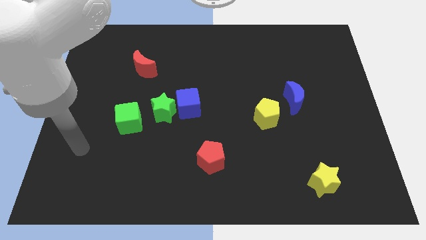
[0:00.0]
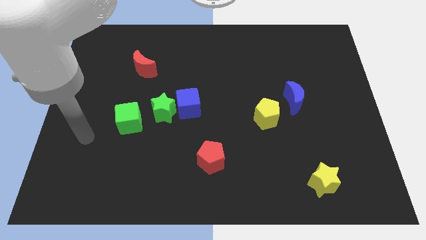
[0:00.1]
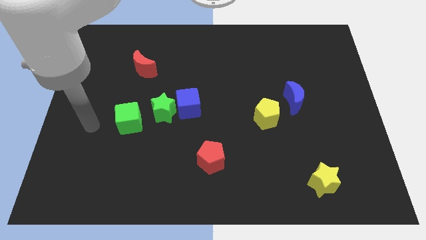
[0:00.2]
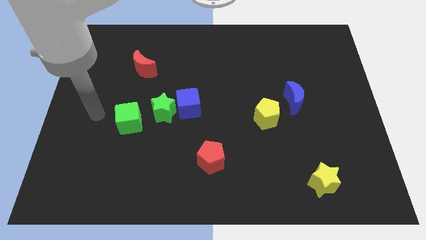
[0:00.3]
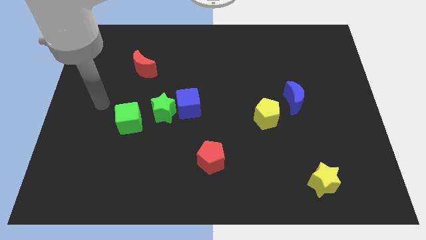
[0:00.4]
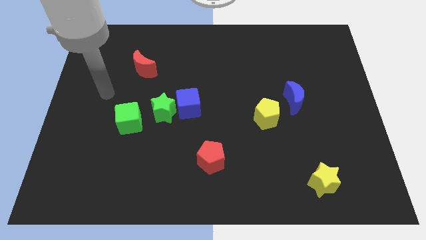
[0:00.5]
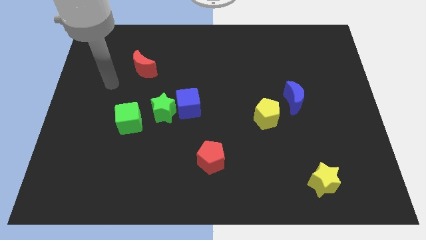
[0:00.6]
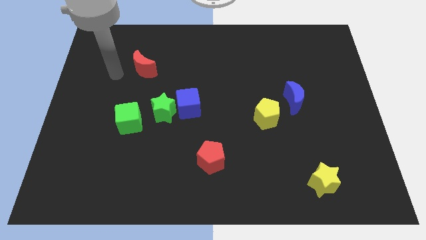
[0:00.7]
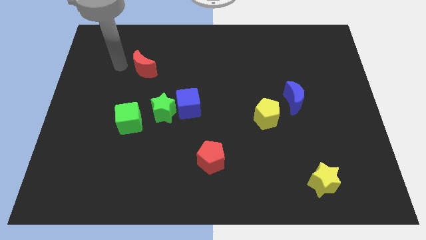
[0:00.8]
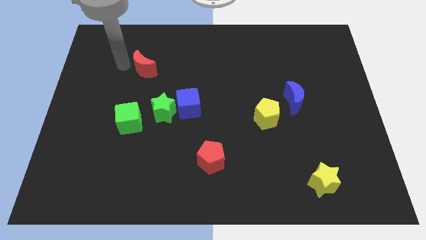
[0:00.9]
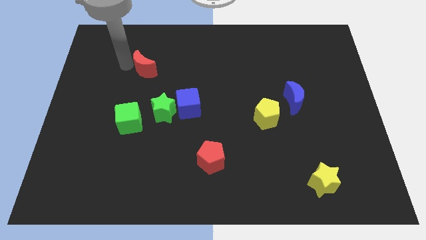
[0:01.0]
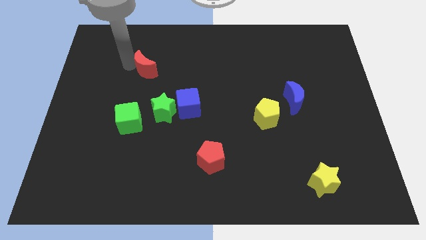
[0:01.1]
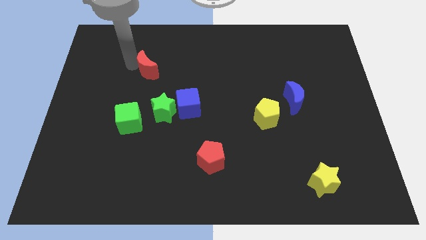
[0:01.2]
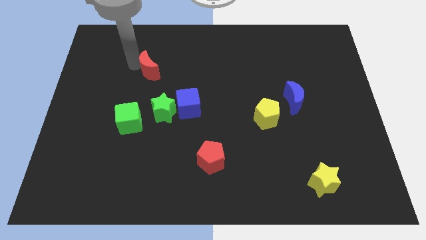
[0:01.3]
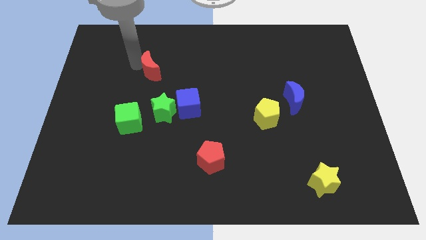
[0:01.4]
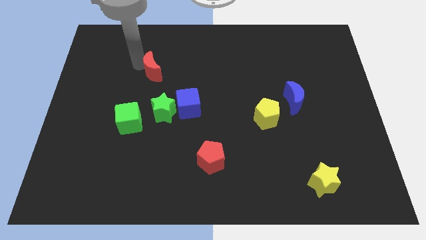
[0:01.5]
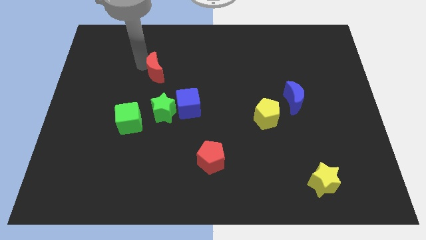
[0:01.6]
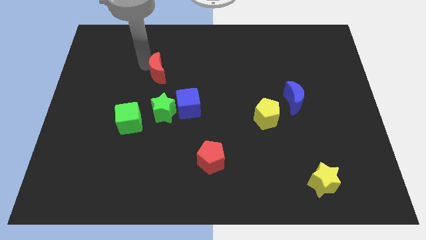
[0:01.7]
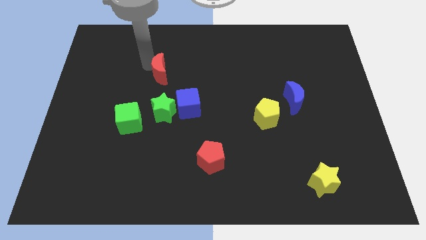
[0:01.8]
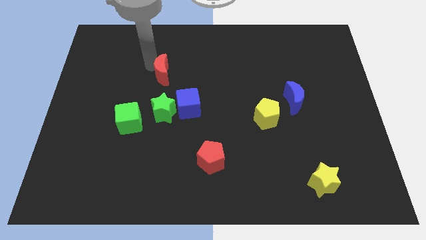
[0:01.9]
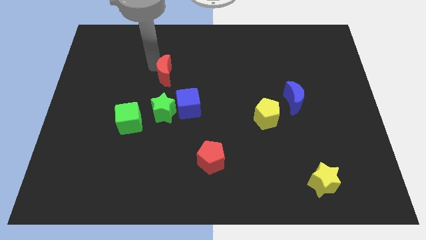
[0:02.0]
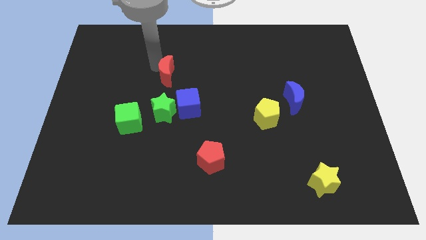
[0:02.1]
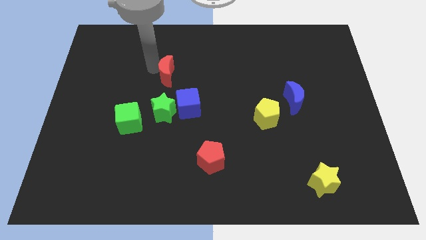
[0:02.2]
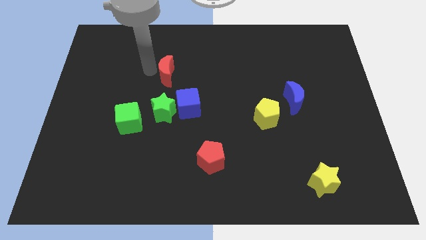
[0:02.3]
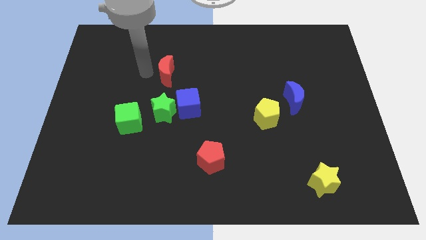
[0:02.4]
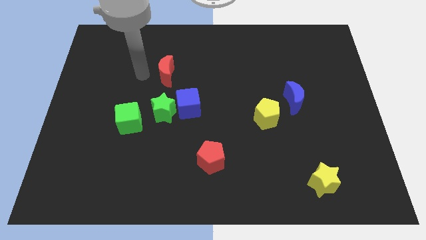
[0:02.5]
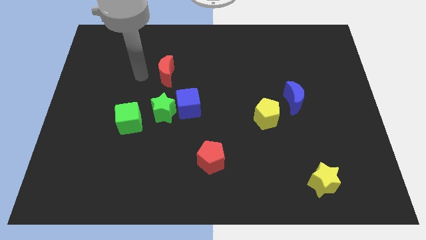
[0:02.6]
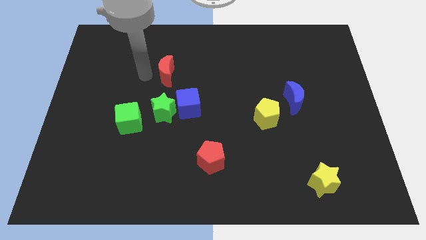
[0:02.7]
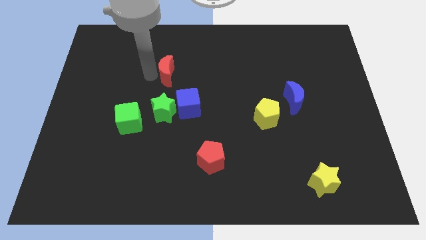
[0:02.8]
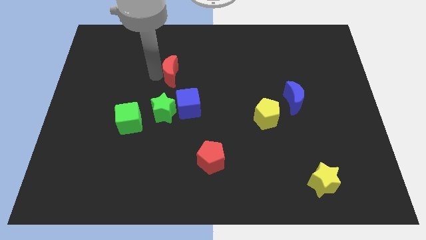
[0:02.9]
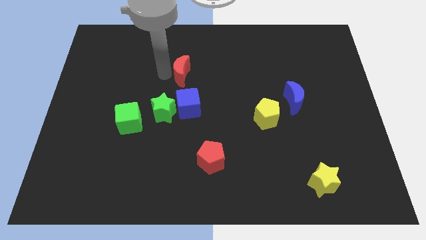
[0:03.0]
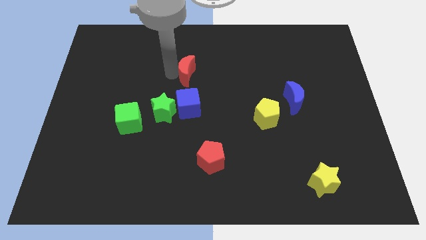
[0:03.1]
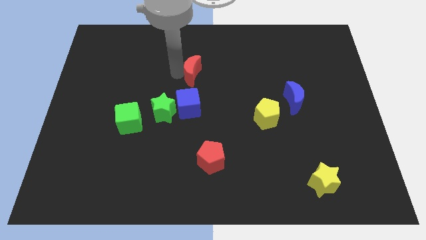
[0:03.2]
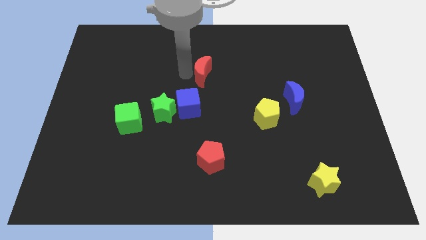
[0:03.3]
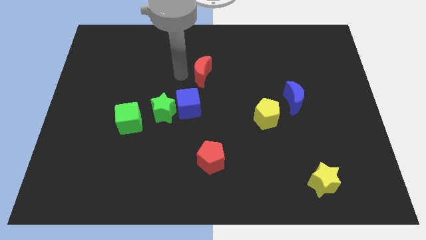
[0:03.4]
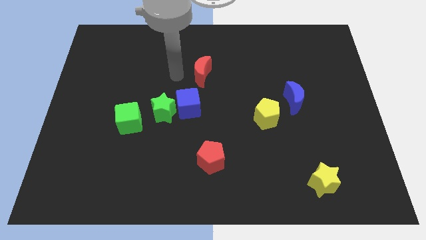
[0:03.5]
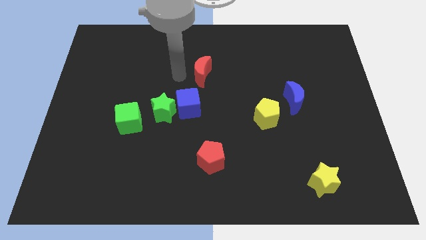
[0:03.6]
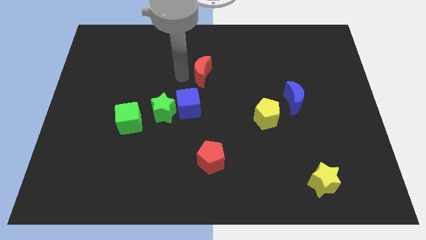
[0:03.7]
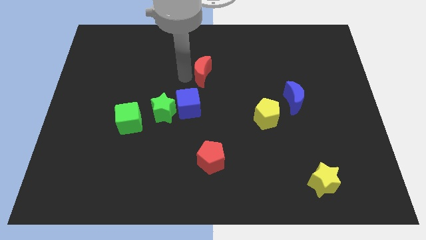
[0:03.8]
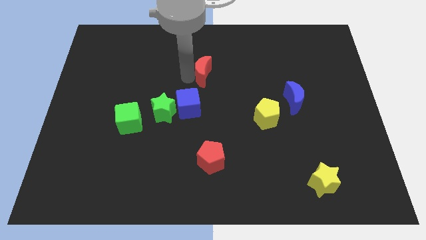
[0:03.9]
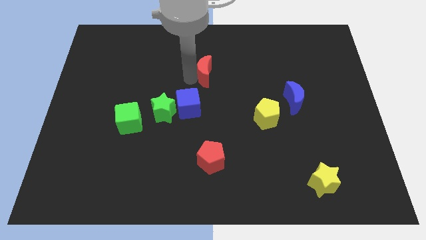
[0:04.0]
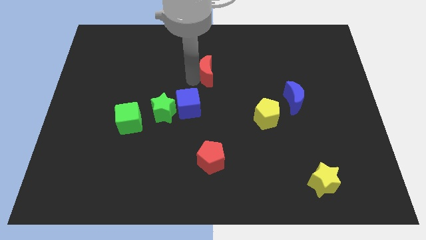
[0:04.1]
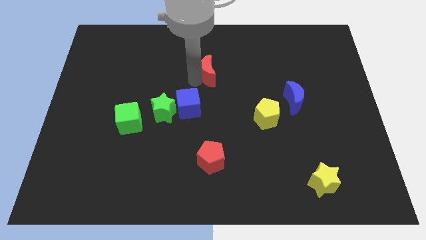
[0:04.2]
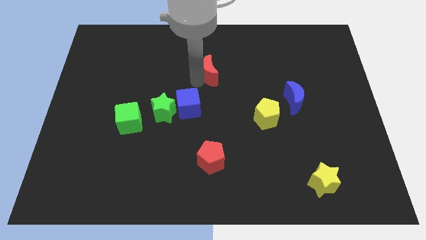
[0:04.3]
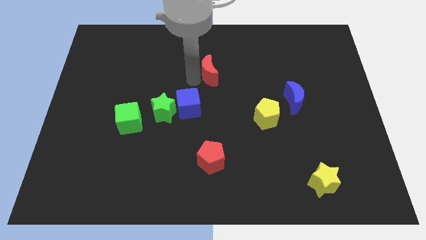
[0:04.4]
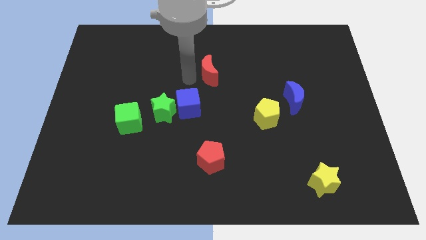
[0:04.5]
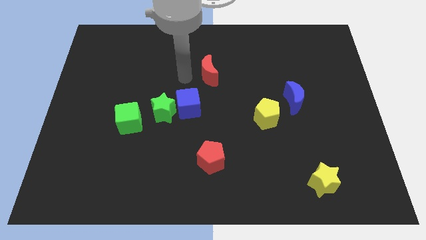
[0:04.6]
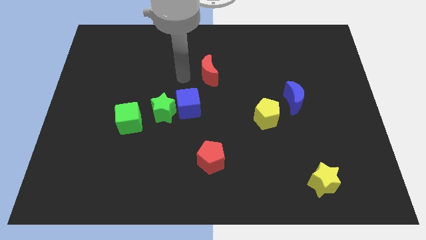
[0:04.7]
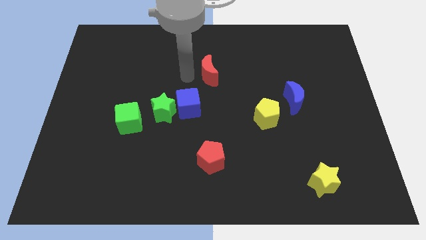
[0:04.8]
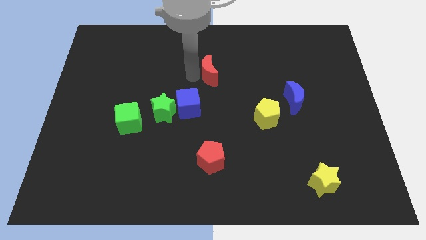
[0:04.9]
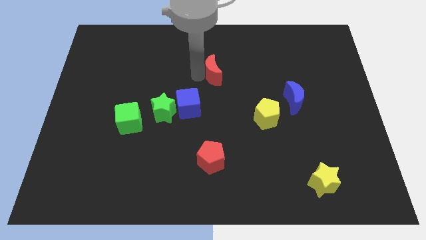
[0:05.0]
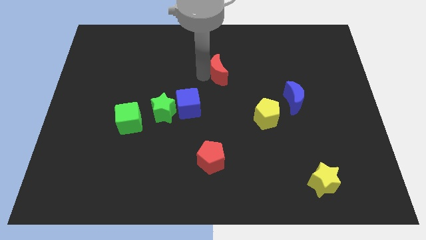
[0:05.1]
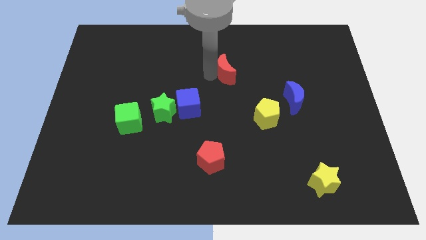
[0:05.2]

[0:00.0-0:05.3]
move the red moon right

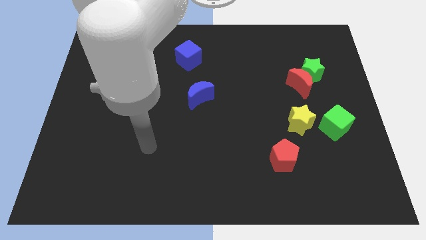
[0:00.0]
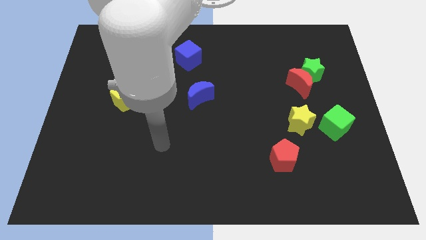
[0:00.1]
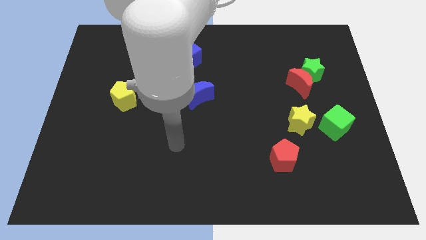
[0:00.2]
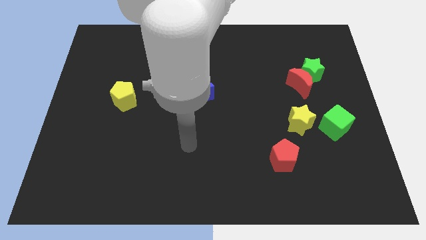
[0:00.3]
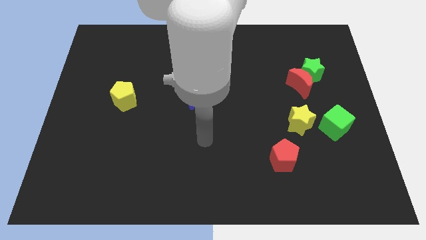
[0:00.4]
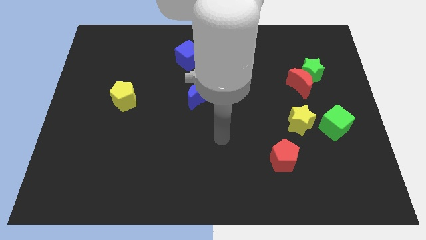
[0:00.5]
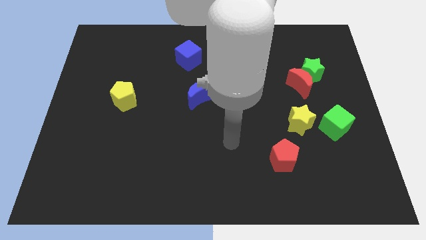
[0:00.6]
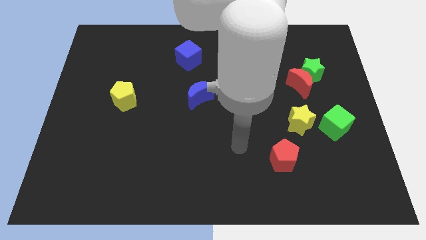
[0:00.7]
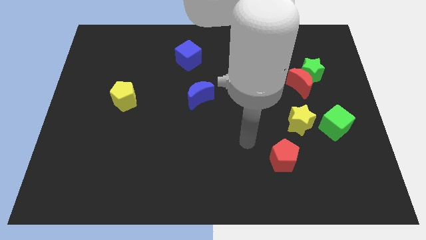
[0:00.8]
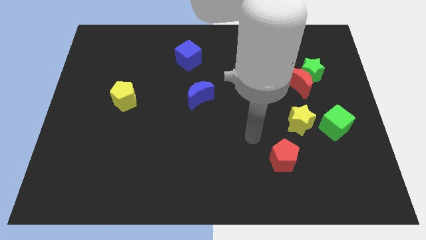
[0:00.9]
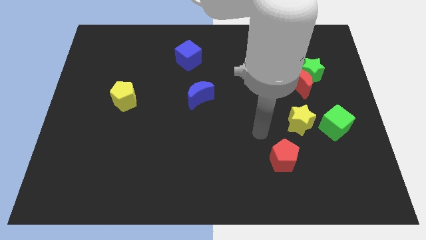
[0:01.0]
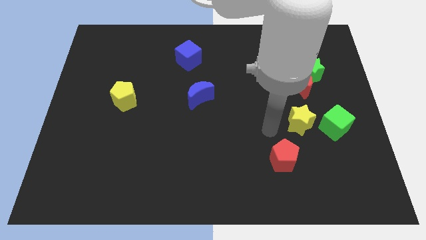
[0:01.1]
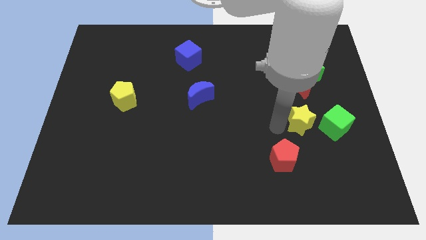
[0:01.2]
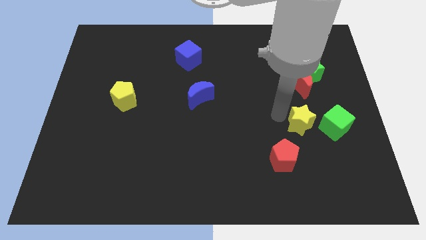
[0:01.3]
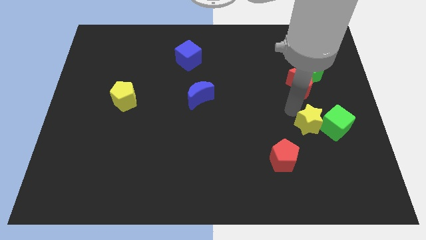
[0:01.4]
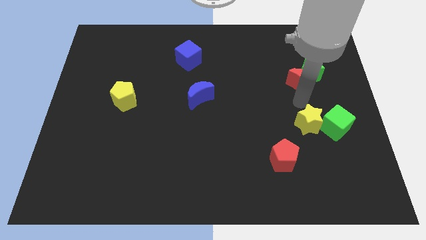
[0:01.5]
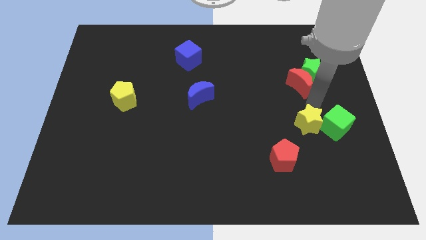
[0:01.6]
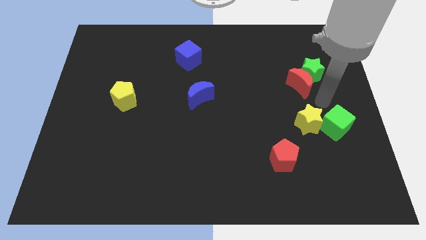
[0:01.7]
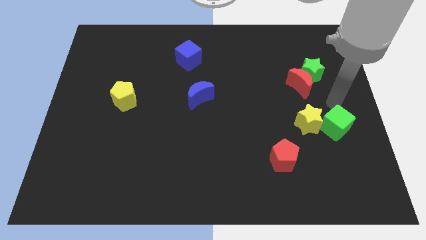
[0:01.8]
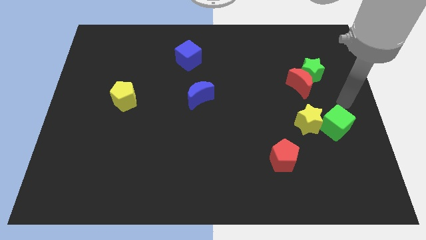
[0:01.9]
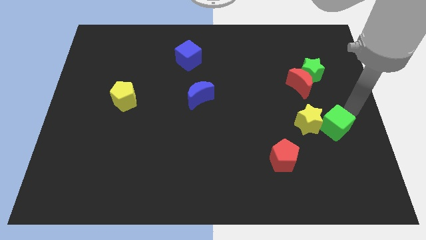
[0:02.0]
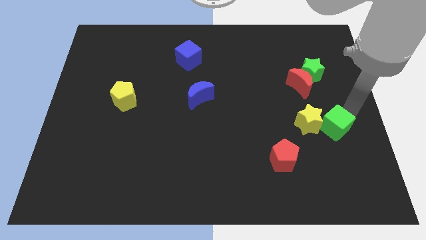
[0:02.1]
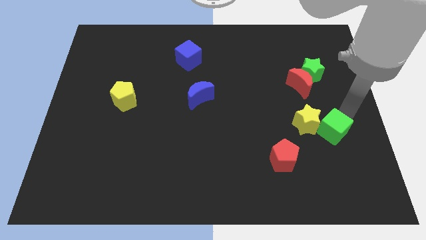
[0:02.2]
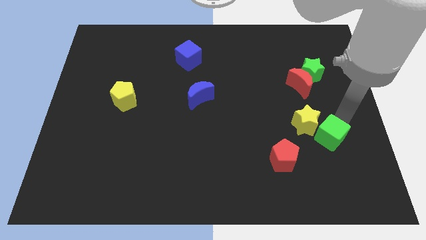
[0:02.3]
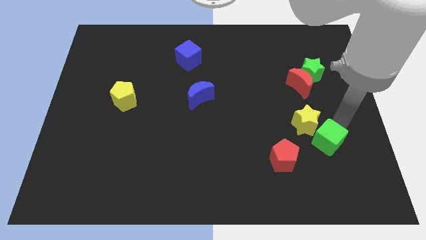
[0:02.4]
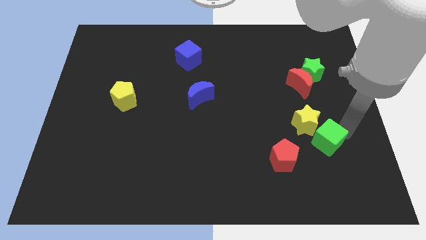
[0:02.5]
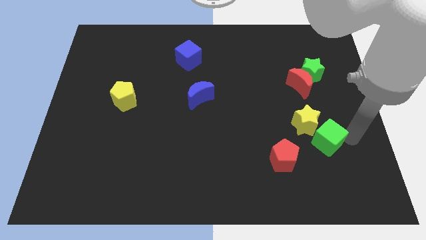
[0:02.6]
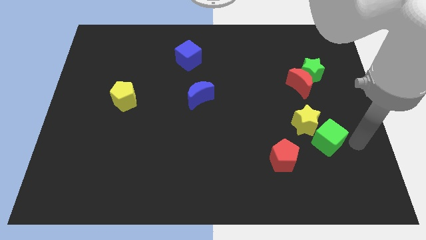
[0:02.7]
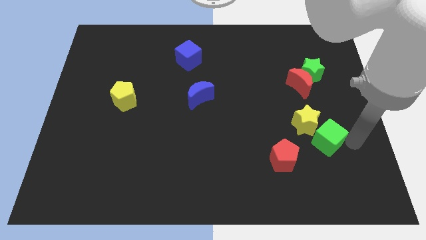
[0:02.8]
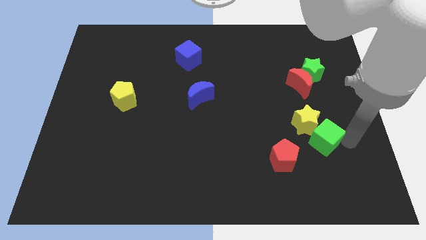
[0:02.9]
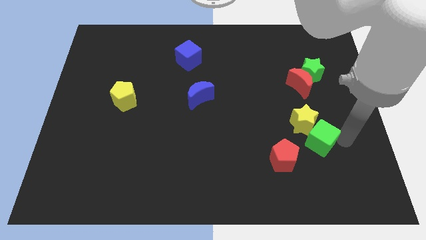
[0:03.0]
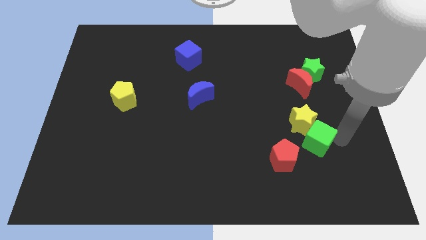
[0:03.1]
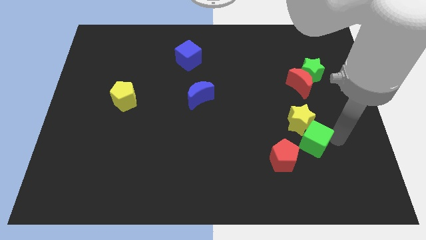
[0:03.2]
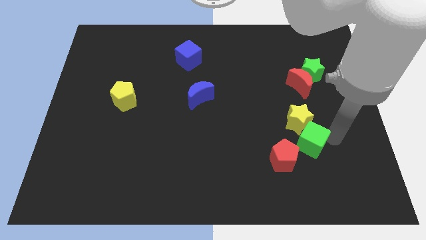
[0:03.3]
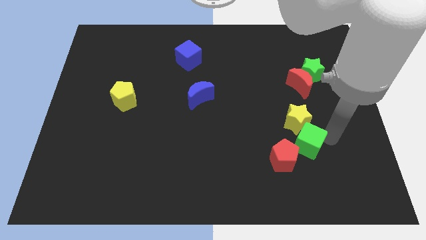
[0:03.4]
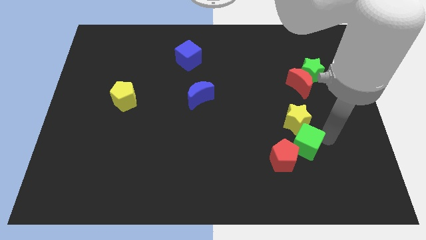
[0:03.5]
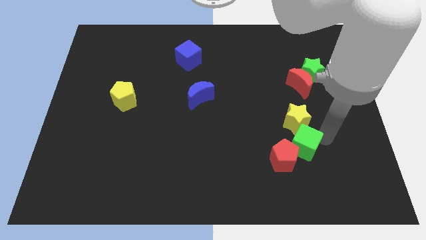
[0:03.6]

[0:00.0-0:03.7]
move the green cube slightly left
